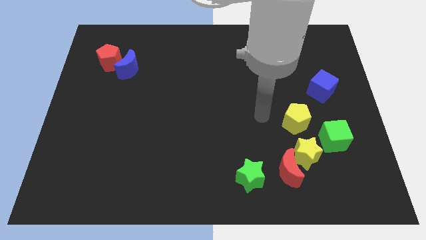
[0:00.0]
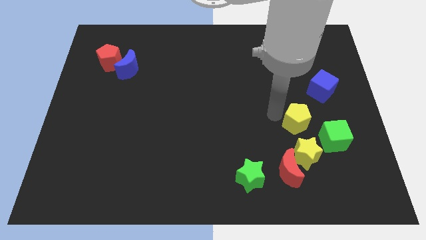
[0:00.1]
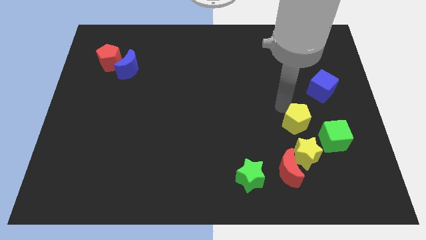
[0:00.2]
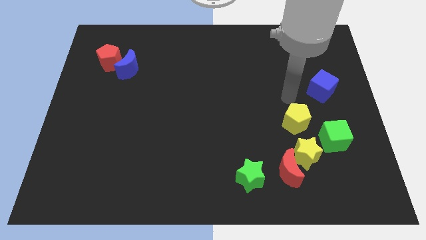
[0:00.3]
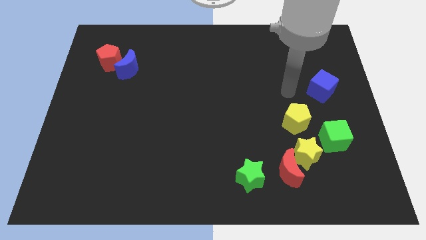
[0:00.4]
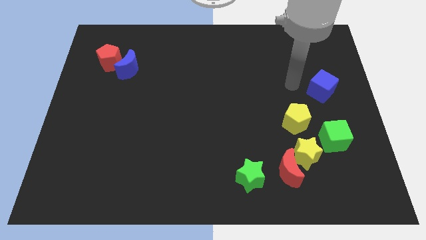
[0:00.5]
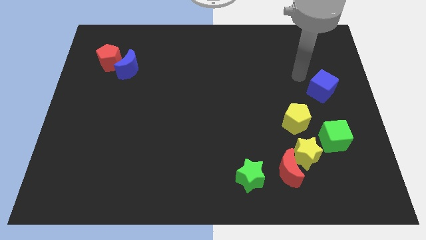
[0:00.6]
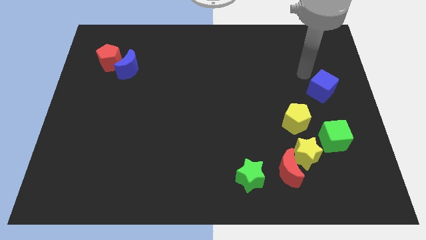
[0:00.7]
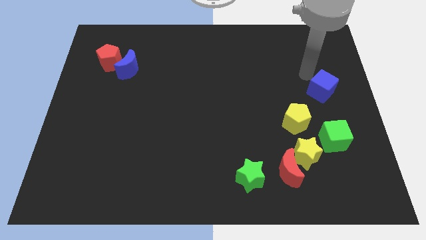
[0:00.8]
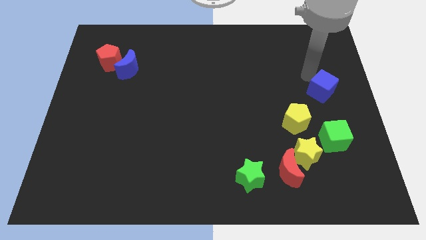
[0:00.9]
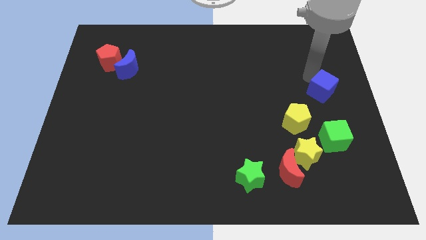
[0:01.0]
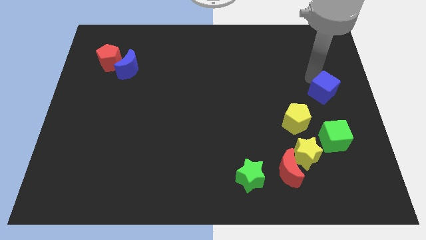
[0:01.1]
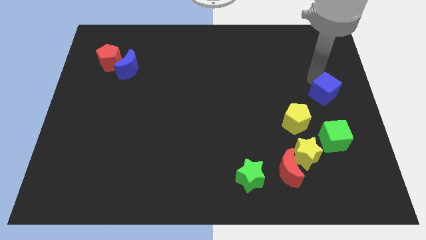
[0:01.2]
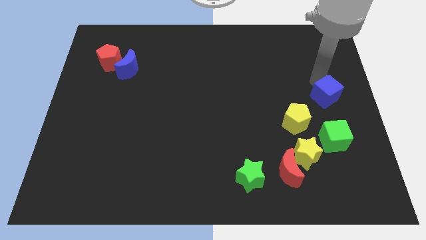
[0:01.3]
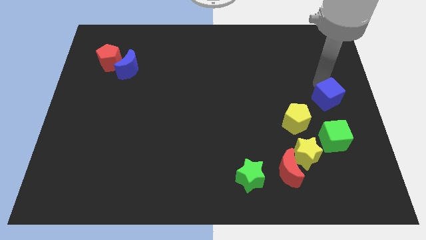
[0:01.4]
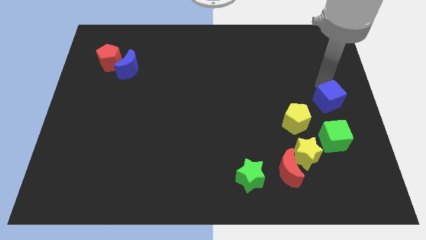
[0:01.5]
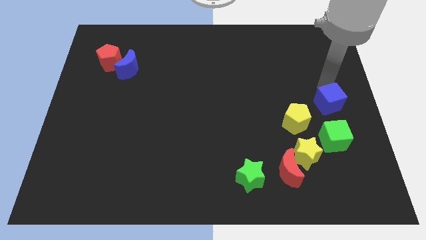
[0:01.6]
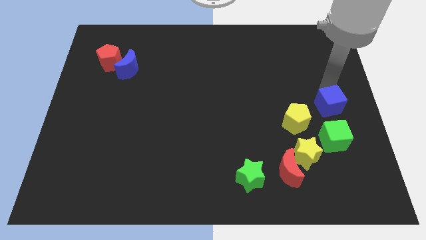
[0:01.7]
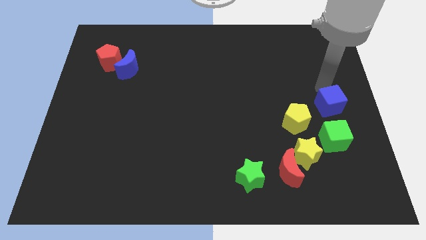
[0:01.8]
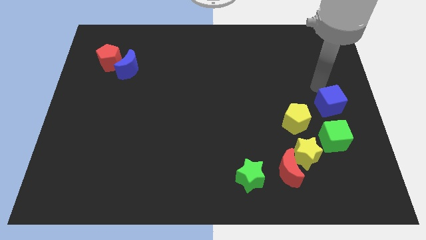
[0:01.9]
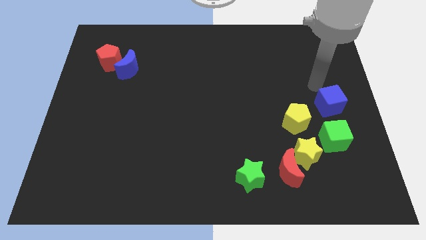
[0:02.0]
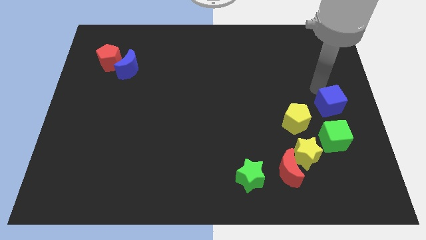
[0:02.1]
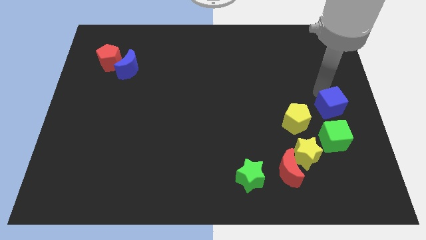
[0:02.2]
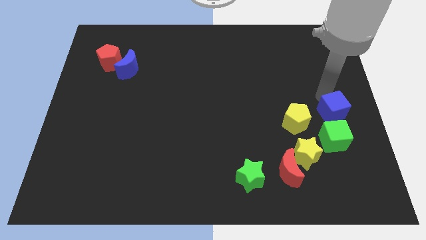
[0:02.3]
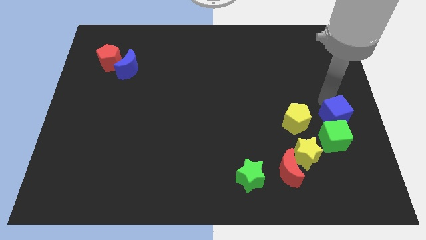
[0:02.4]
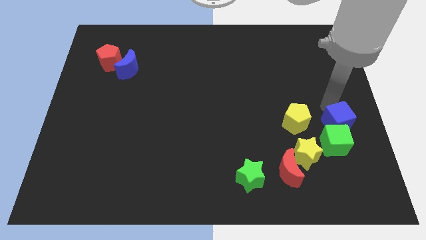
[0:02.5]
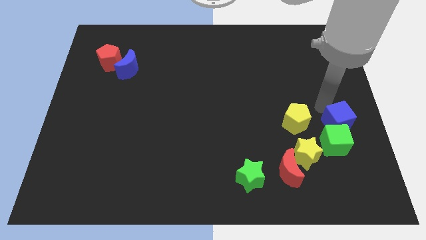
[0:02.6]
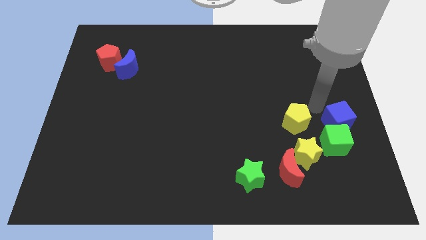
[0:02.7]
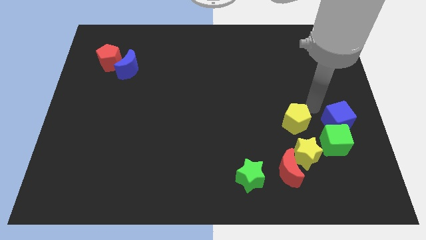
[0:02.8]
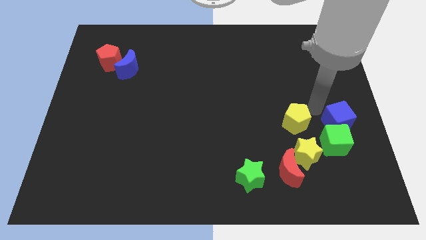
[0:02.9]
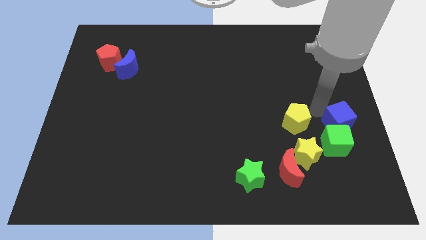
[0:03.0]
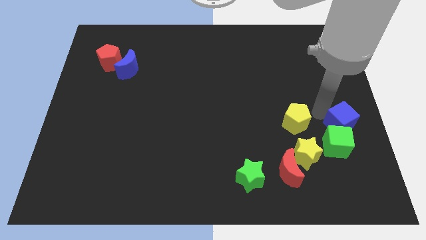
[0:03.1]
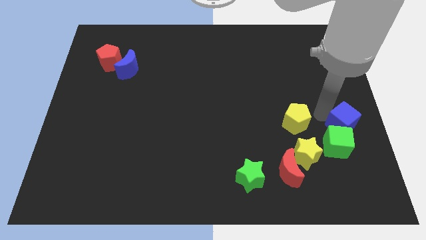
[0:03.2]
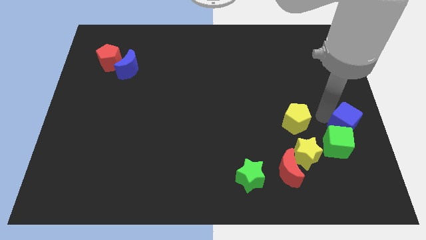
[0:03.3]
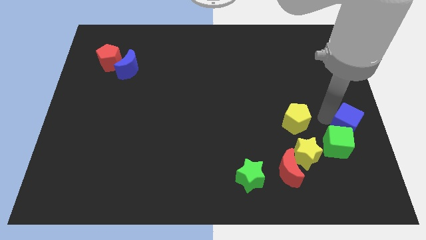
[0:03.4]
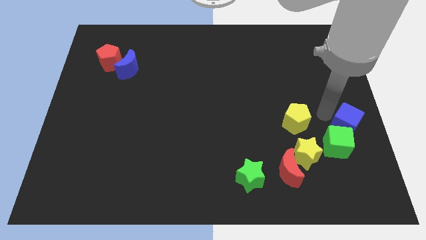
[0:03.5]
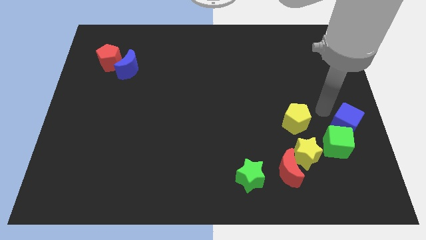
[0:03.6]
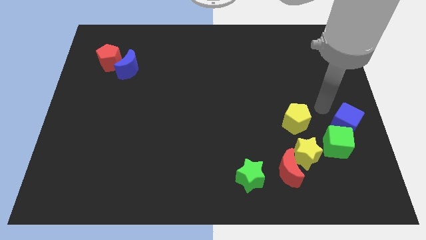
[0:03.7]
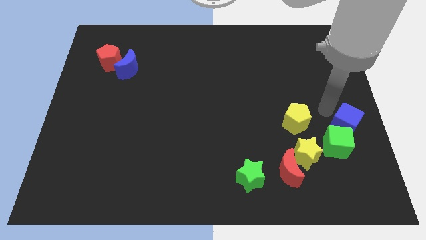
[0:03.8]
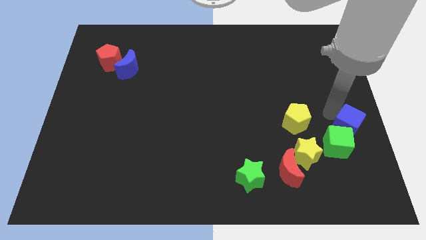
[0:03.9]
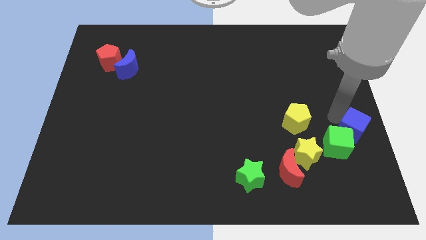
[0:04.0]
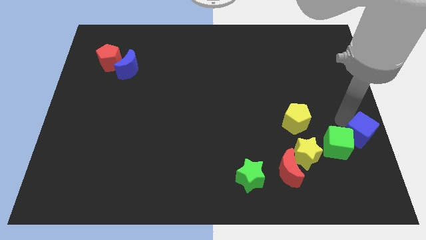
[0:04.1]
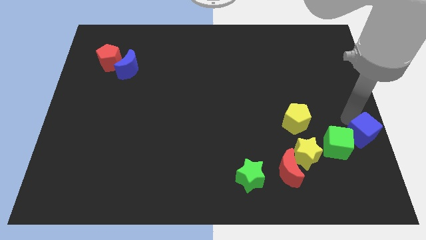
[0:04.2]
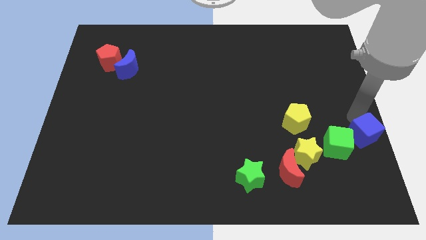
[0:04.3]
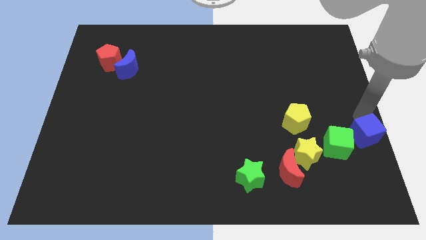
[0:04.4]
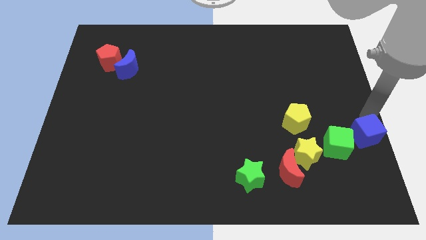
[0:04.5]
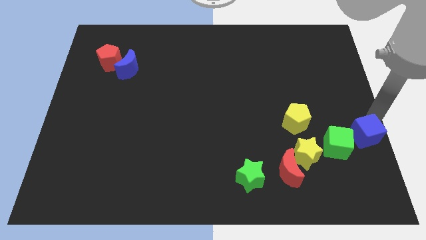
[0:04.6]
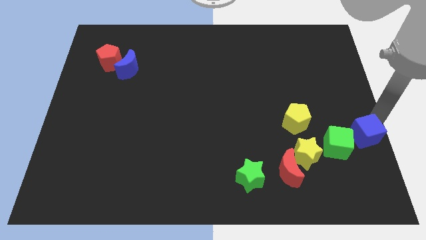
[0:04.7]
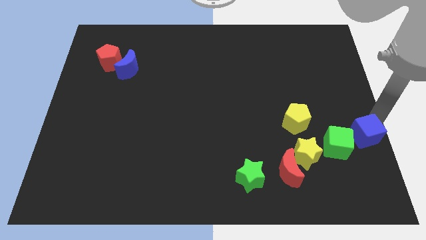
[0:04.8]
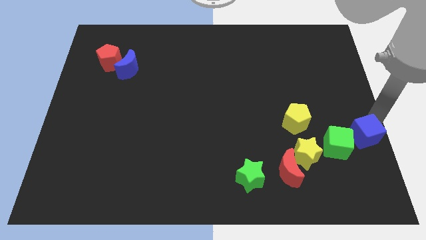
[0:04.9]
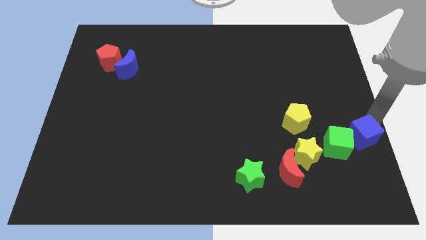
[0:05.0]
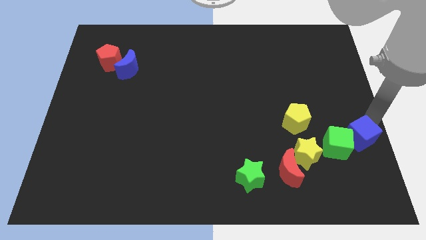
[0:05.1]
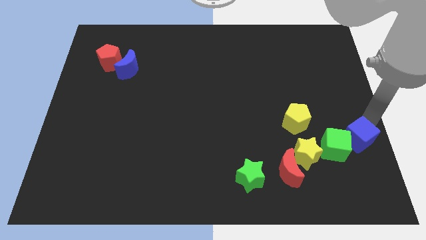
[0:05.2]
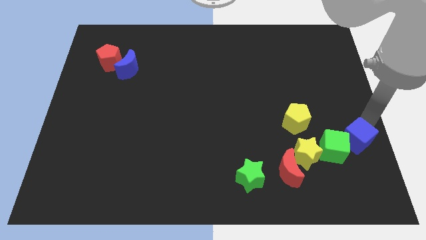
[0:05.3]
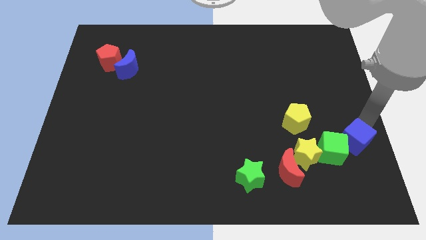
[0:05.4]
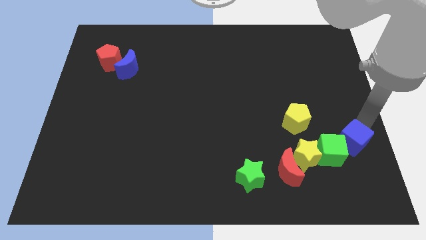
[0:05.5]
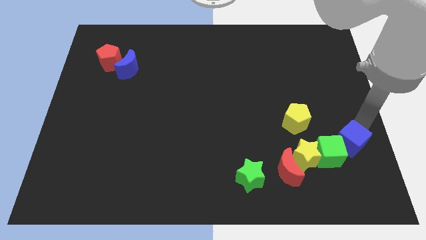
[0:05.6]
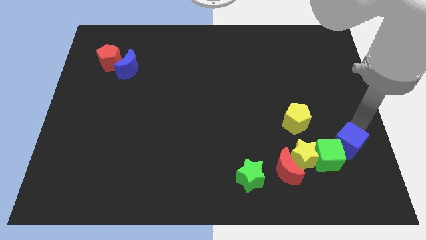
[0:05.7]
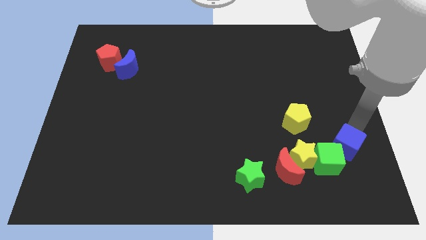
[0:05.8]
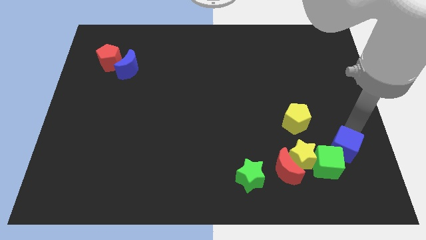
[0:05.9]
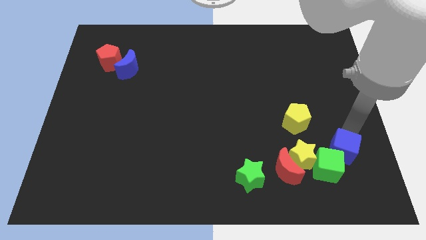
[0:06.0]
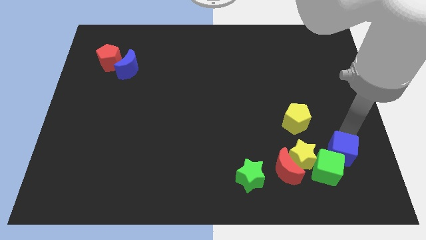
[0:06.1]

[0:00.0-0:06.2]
put the blue cube to the right of the red moon

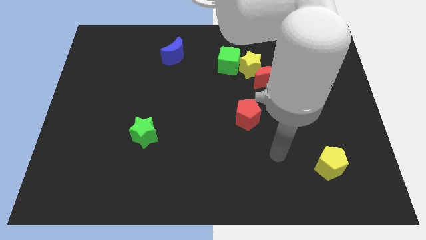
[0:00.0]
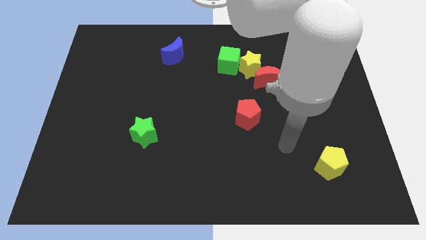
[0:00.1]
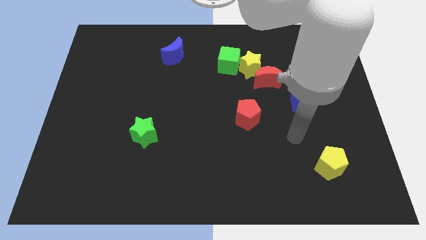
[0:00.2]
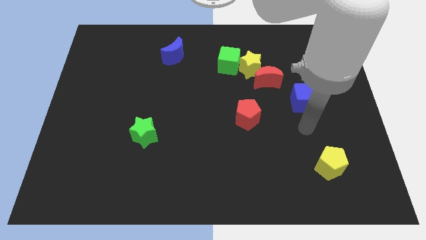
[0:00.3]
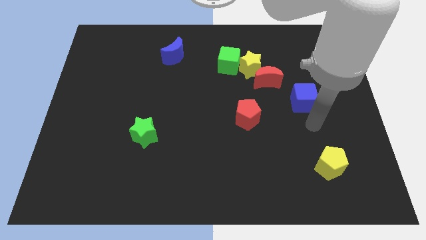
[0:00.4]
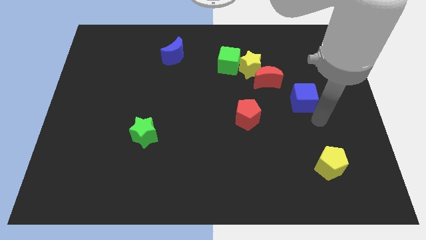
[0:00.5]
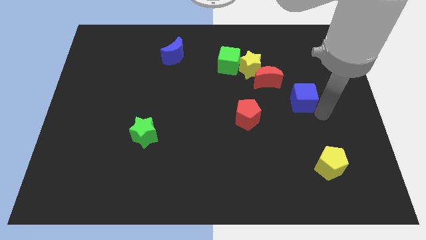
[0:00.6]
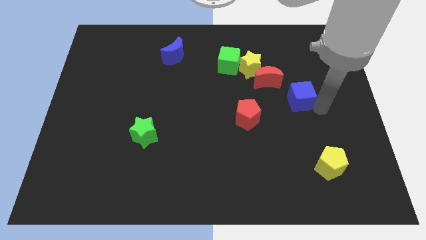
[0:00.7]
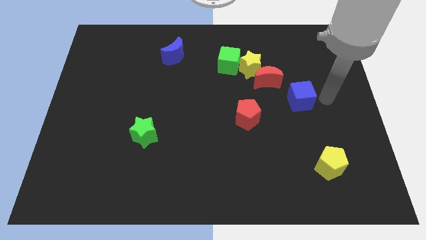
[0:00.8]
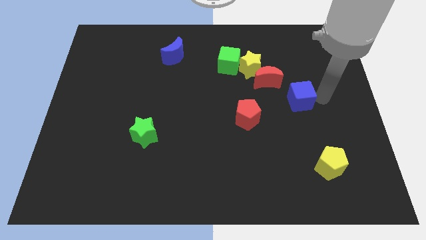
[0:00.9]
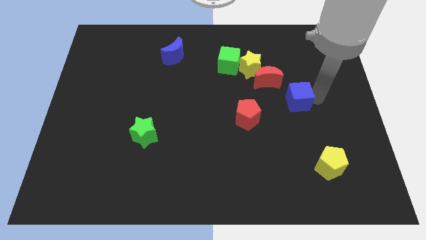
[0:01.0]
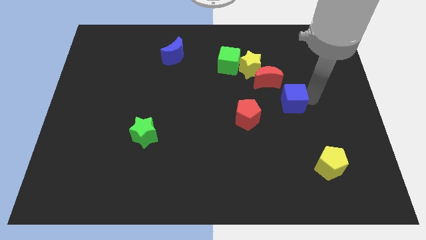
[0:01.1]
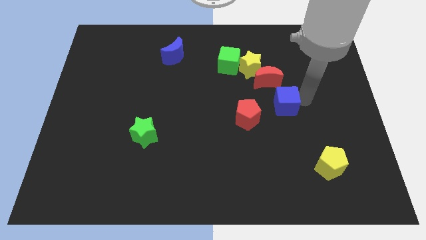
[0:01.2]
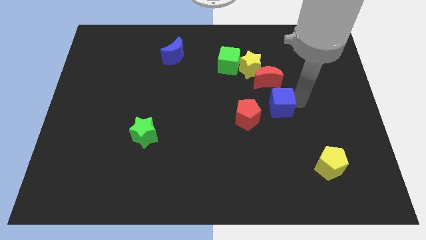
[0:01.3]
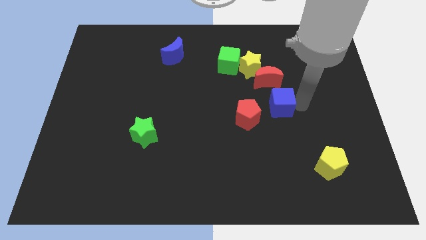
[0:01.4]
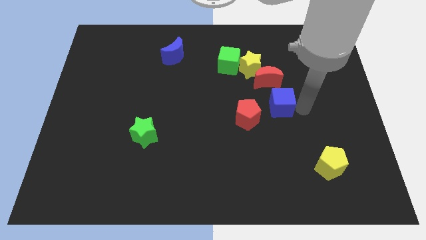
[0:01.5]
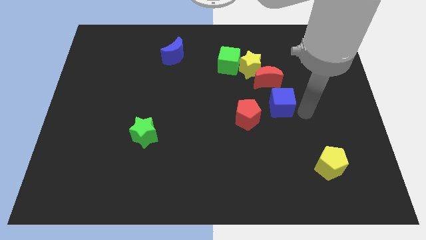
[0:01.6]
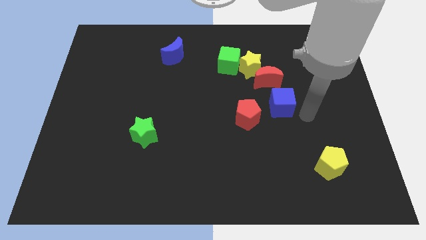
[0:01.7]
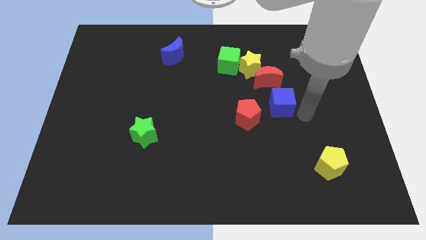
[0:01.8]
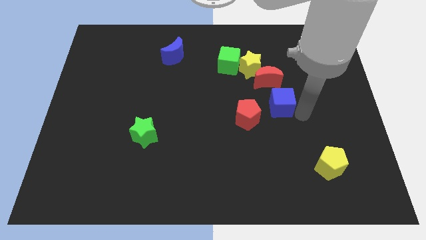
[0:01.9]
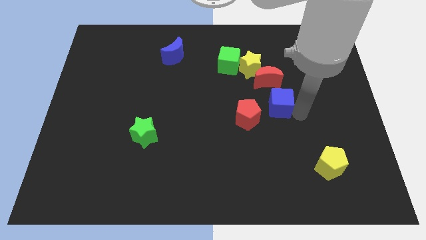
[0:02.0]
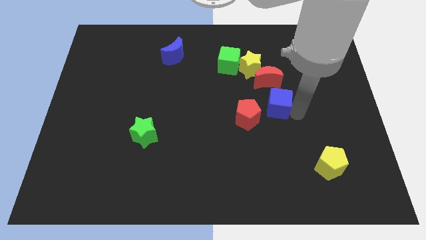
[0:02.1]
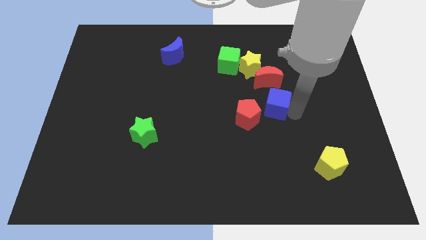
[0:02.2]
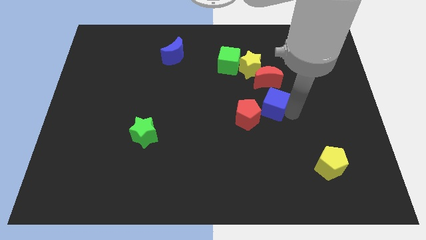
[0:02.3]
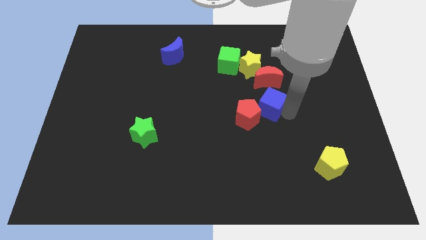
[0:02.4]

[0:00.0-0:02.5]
move the blue cube to the bottom side of the yellow star
